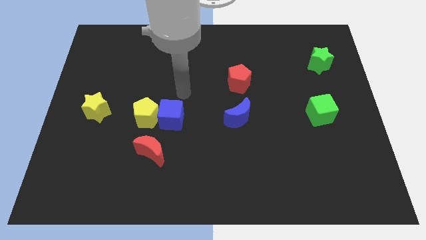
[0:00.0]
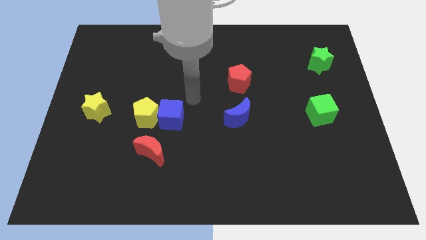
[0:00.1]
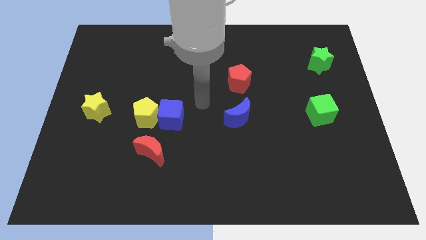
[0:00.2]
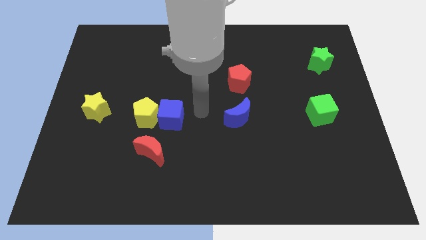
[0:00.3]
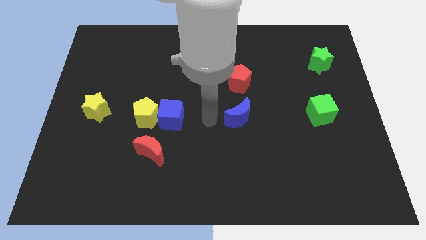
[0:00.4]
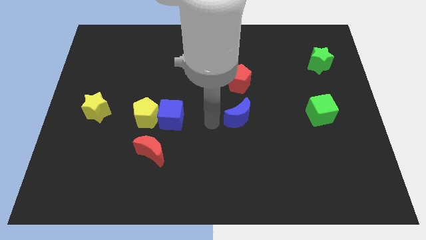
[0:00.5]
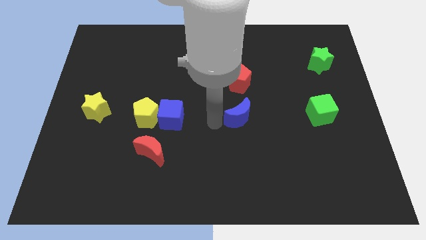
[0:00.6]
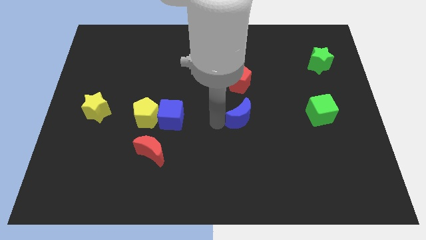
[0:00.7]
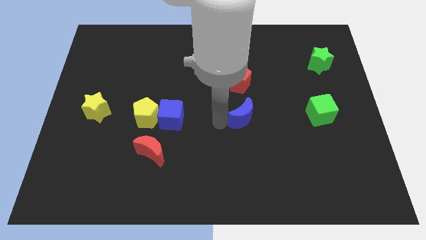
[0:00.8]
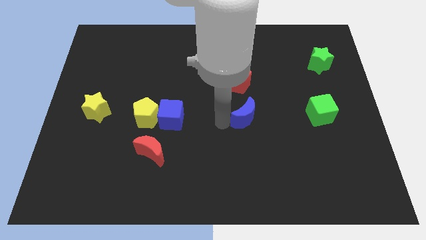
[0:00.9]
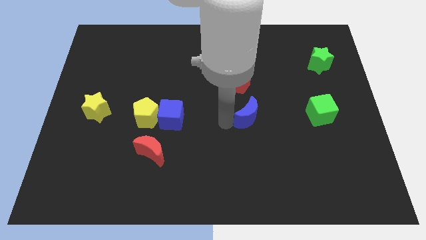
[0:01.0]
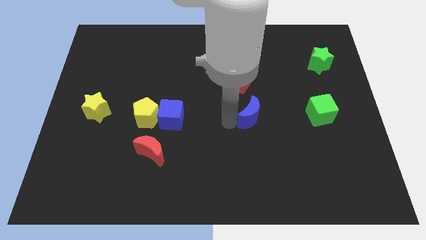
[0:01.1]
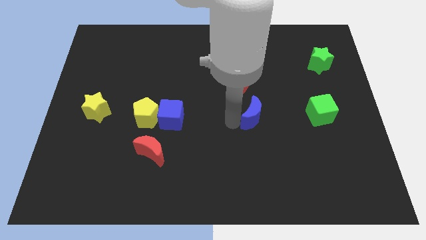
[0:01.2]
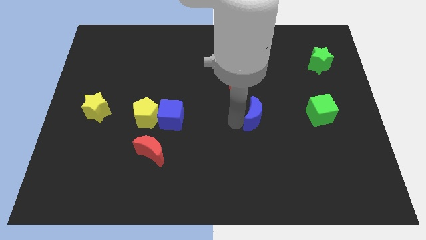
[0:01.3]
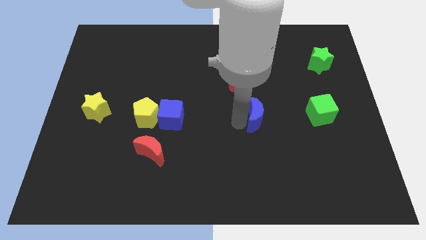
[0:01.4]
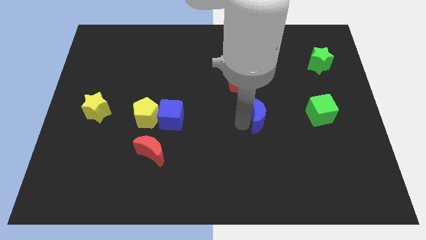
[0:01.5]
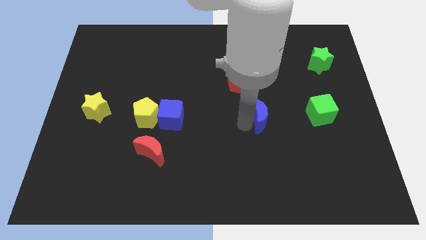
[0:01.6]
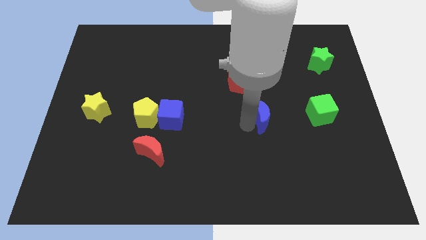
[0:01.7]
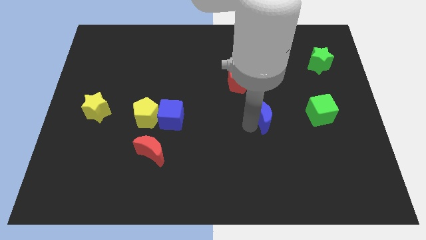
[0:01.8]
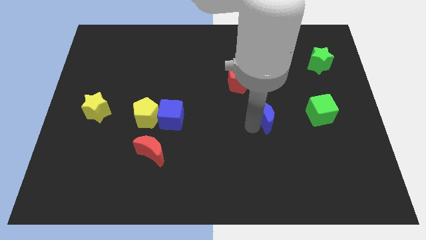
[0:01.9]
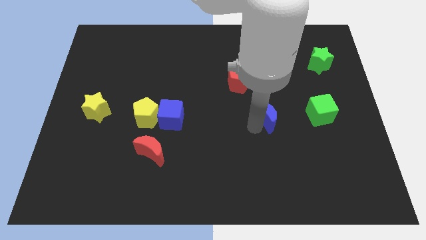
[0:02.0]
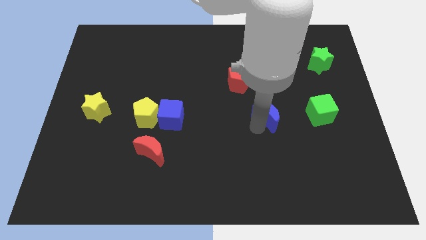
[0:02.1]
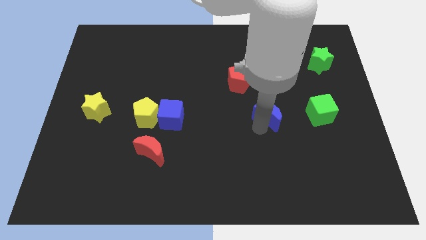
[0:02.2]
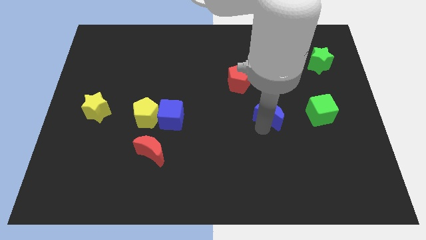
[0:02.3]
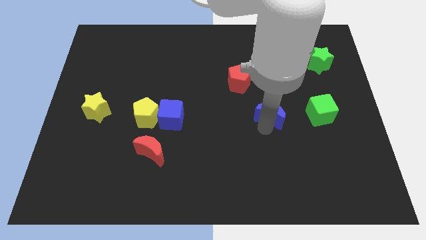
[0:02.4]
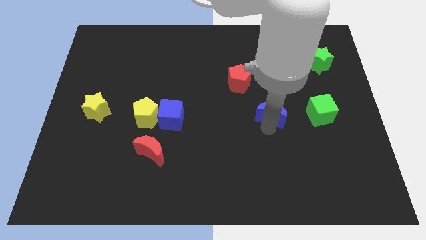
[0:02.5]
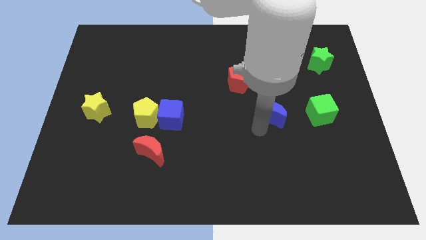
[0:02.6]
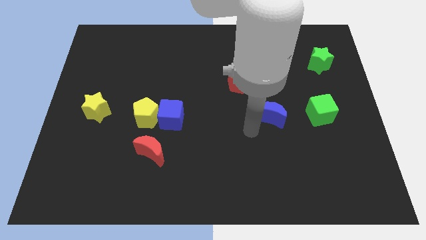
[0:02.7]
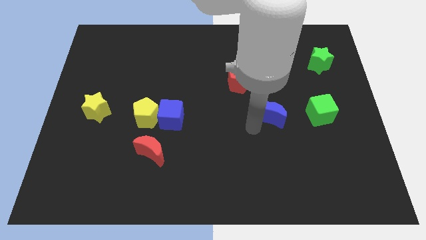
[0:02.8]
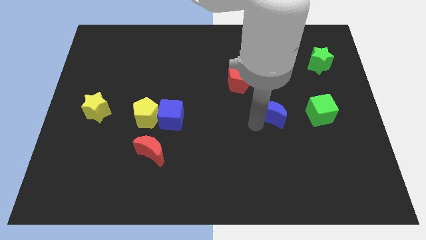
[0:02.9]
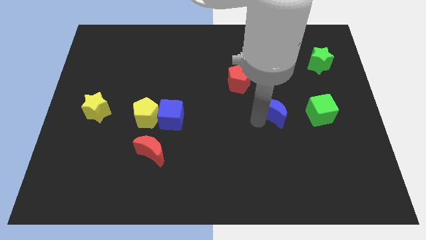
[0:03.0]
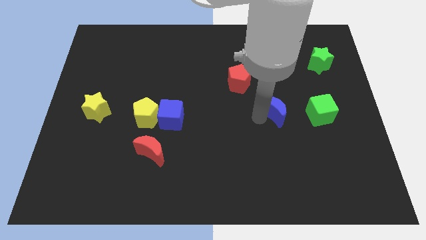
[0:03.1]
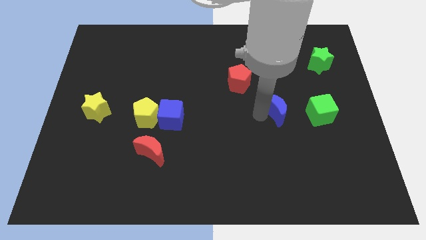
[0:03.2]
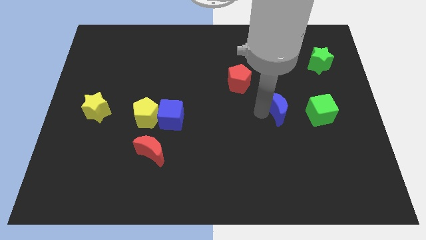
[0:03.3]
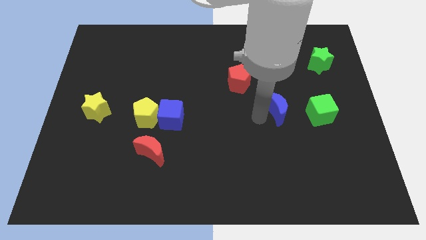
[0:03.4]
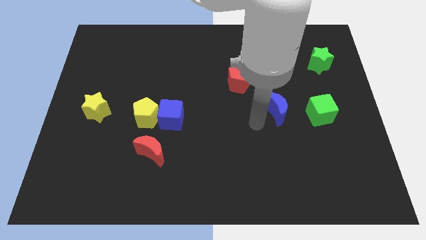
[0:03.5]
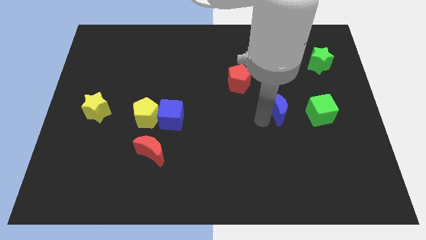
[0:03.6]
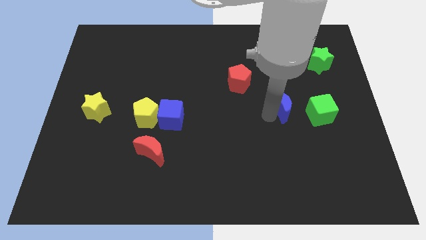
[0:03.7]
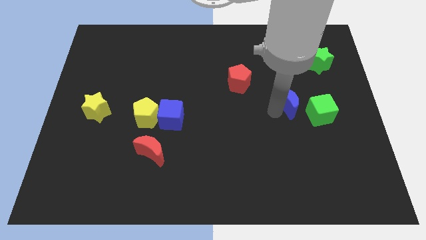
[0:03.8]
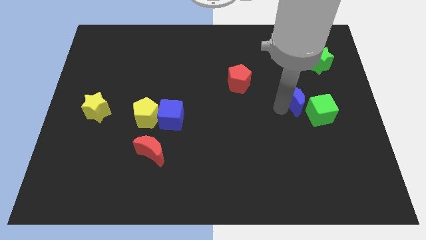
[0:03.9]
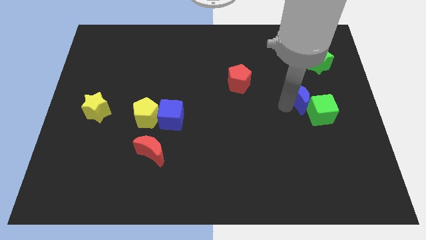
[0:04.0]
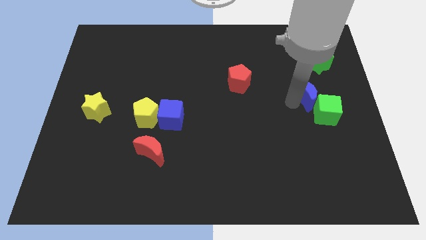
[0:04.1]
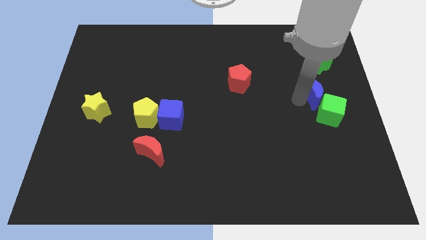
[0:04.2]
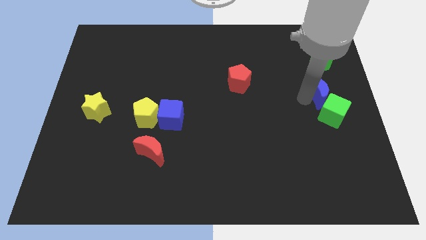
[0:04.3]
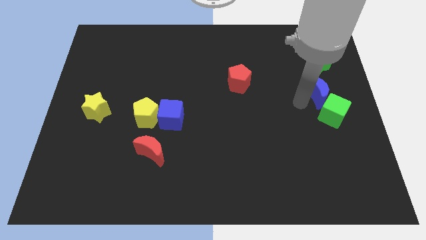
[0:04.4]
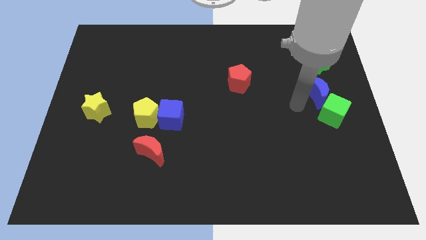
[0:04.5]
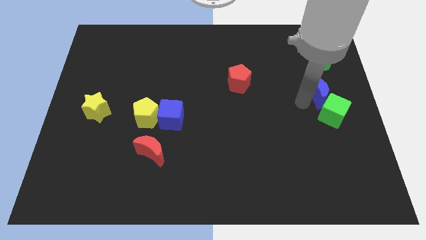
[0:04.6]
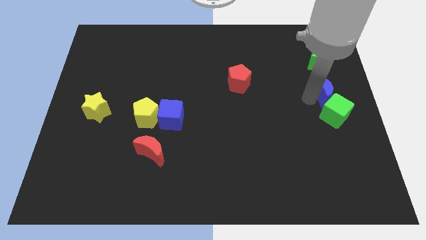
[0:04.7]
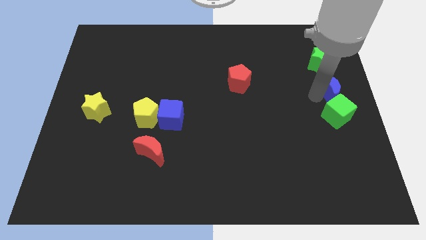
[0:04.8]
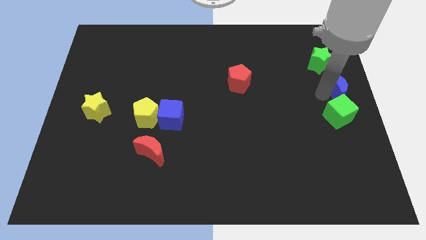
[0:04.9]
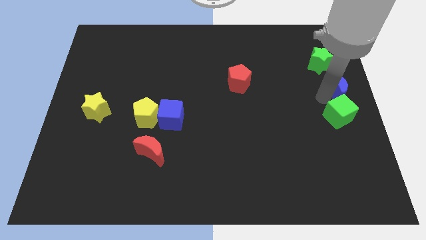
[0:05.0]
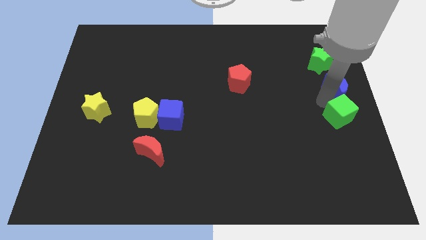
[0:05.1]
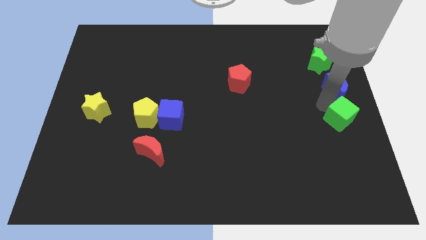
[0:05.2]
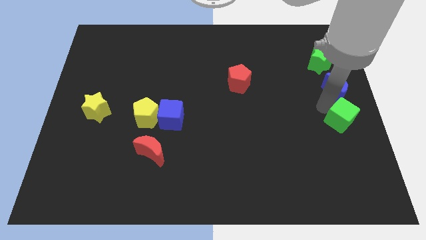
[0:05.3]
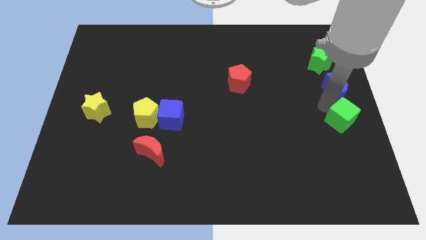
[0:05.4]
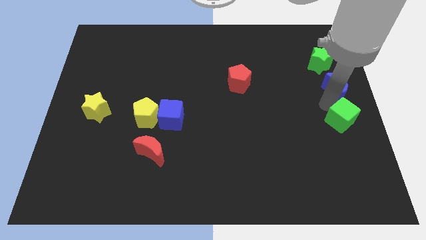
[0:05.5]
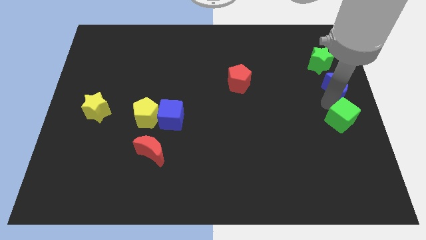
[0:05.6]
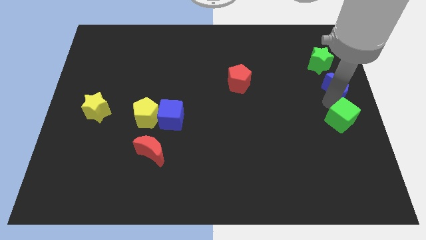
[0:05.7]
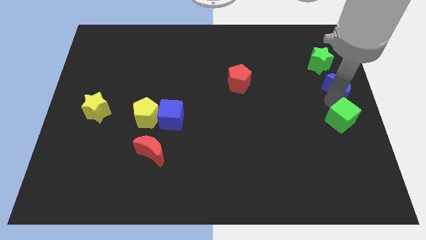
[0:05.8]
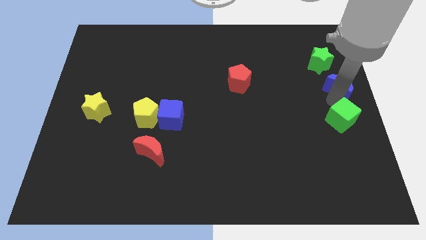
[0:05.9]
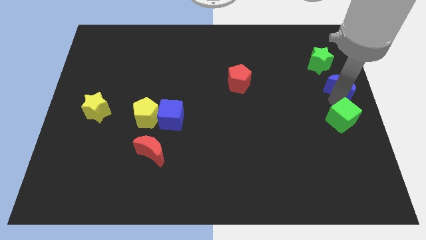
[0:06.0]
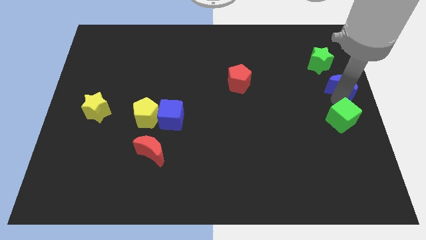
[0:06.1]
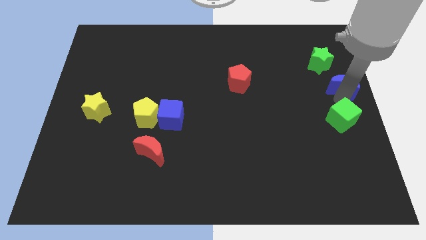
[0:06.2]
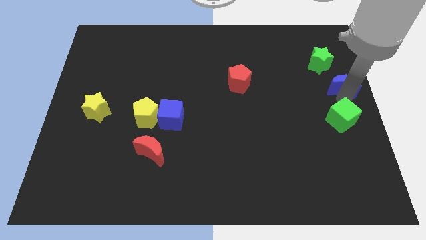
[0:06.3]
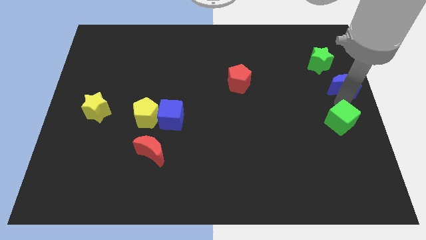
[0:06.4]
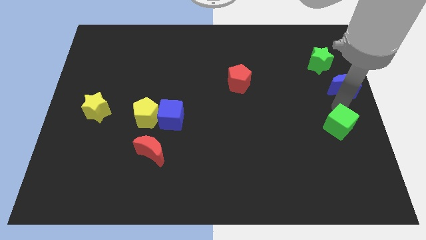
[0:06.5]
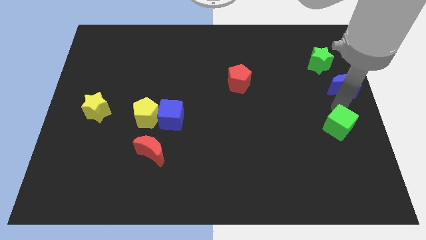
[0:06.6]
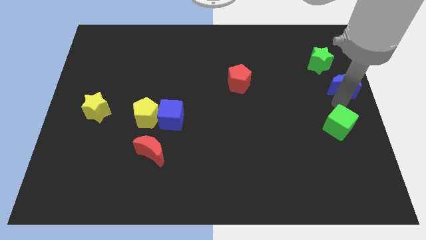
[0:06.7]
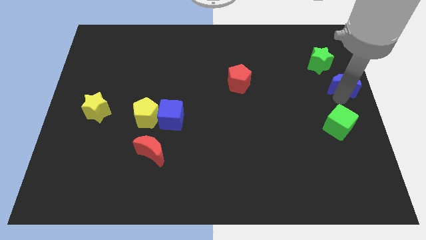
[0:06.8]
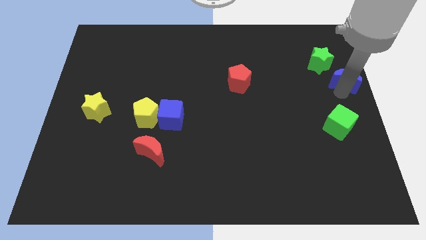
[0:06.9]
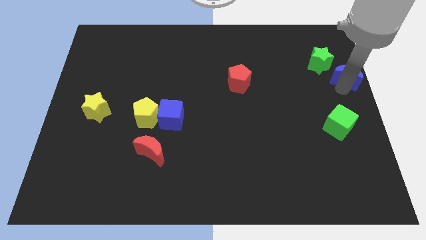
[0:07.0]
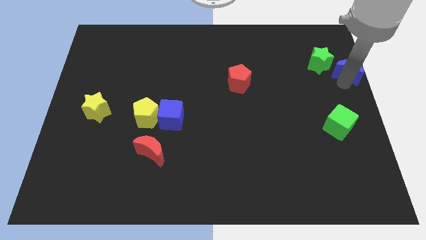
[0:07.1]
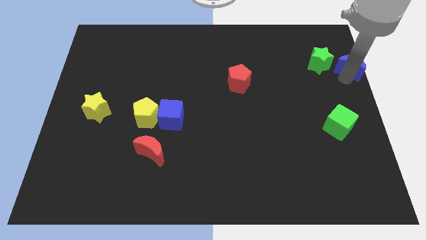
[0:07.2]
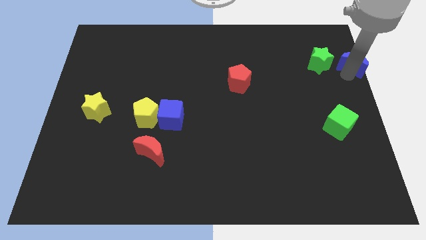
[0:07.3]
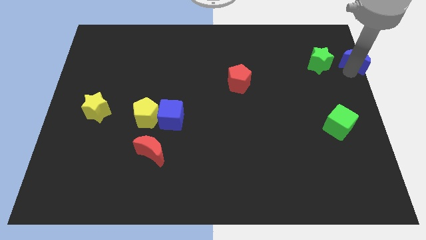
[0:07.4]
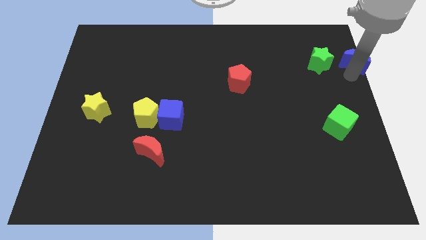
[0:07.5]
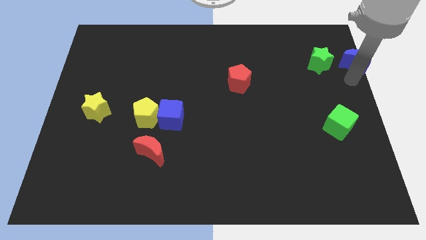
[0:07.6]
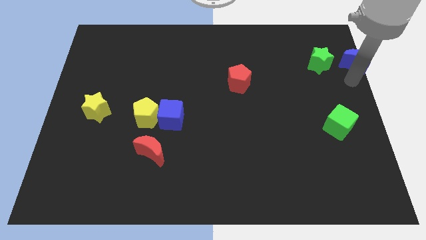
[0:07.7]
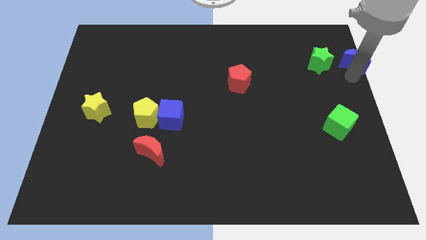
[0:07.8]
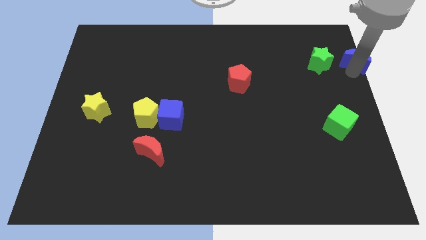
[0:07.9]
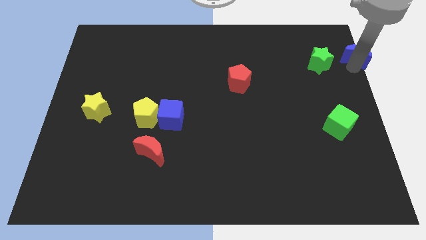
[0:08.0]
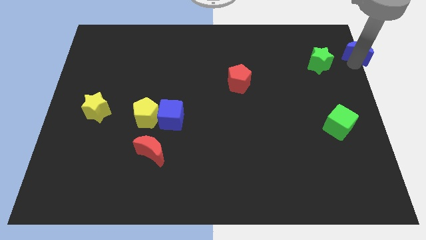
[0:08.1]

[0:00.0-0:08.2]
push the blue moon to the upper right corner
